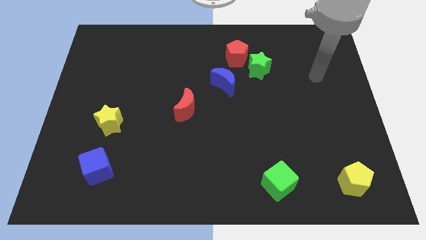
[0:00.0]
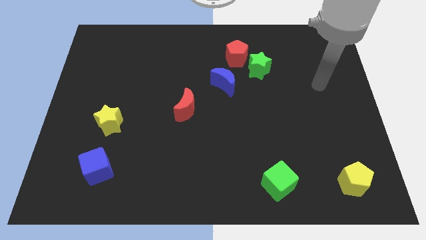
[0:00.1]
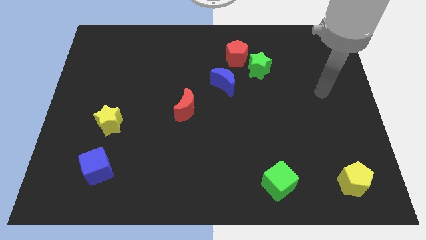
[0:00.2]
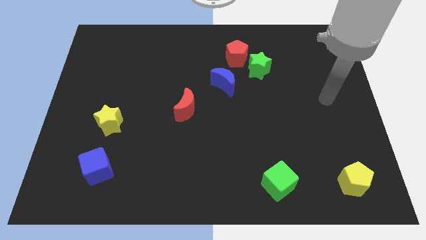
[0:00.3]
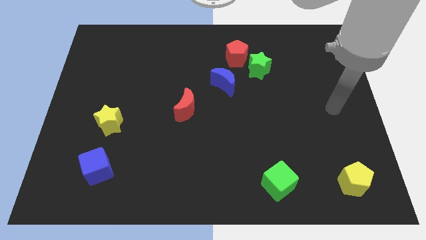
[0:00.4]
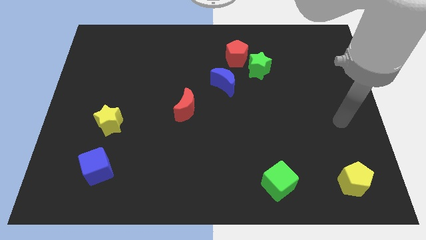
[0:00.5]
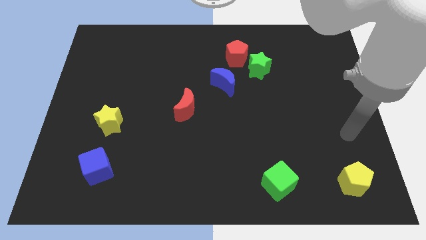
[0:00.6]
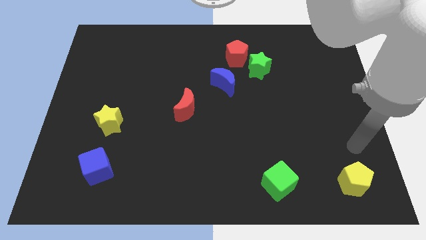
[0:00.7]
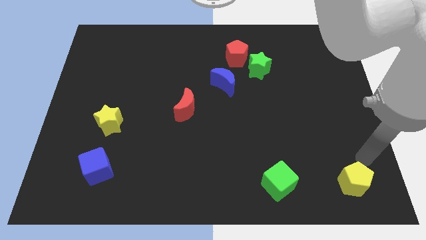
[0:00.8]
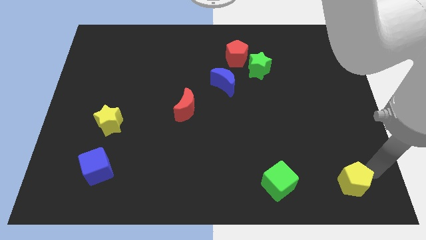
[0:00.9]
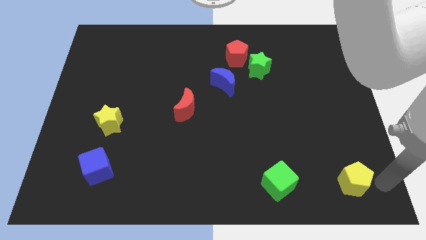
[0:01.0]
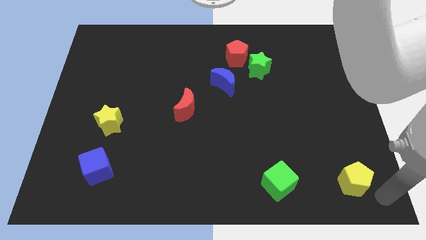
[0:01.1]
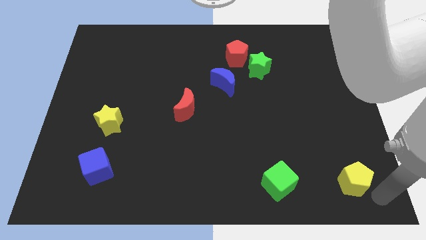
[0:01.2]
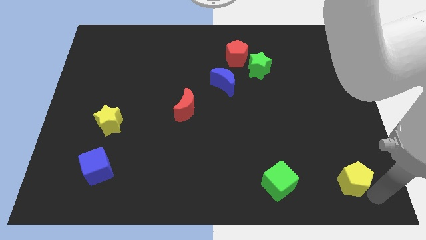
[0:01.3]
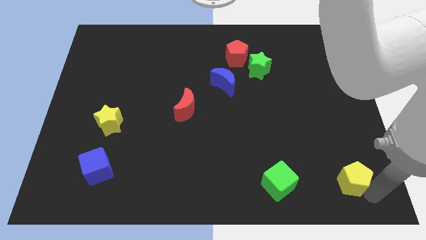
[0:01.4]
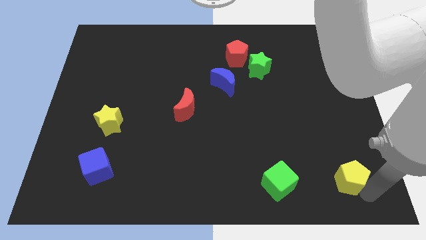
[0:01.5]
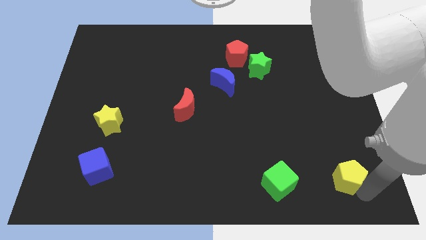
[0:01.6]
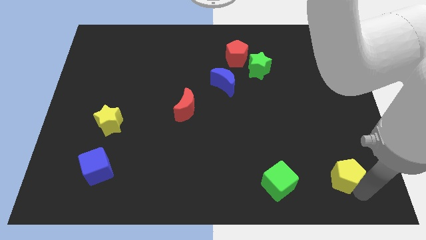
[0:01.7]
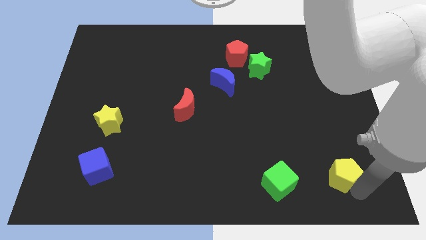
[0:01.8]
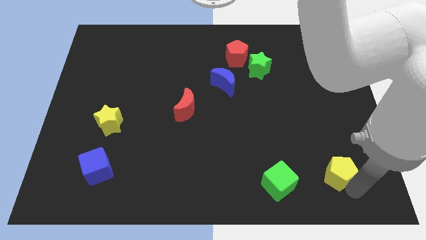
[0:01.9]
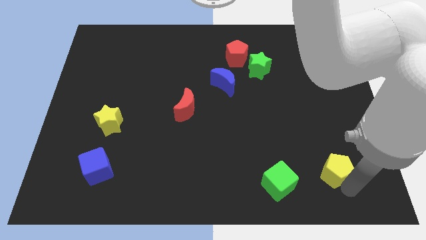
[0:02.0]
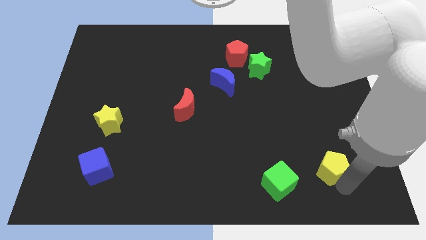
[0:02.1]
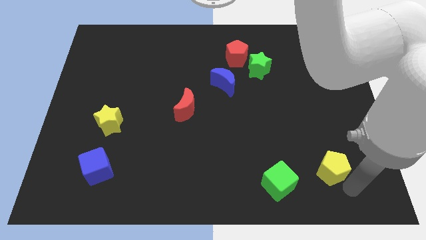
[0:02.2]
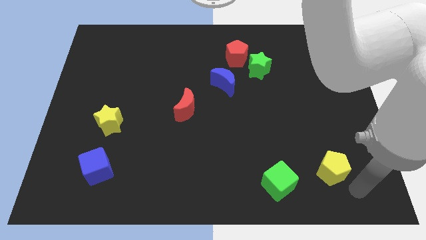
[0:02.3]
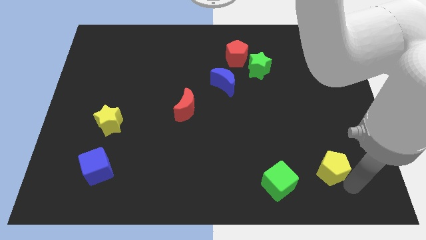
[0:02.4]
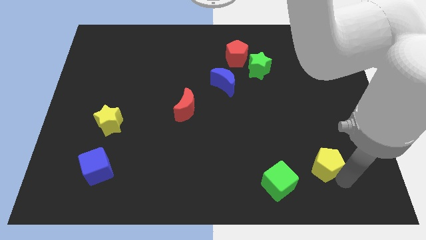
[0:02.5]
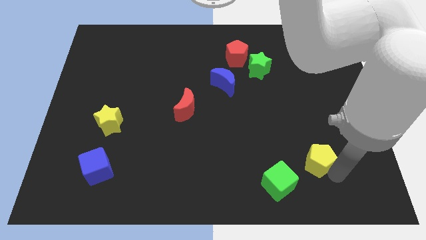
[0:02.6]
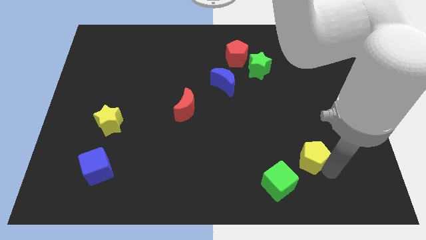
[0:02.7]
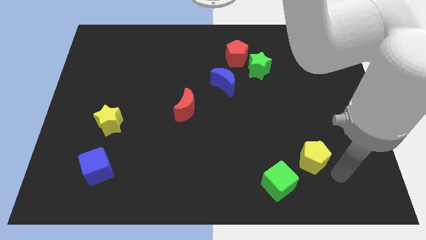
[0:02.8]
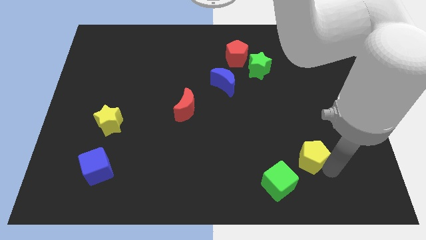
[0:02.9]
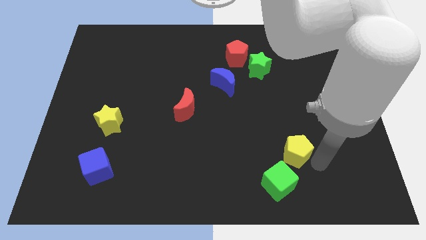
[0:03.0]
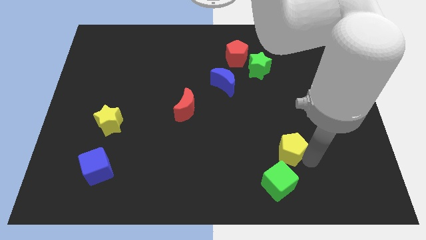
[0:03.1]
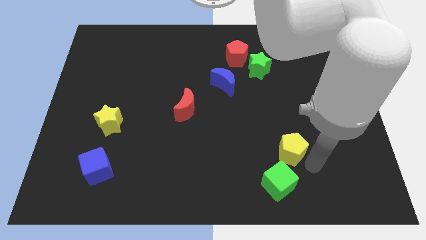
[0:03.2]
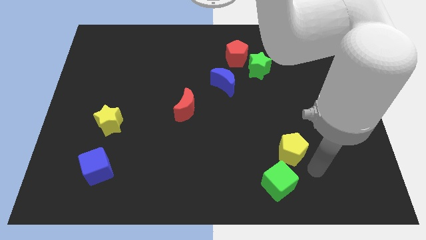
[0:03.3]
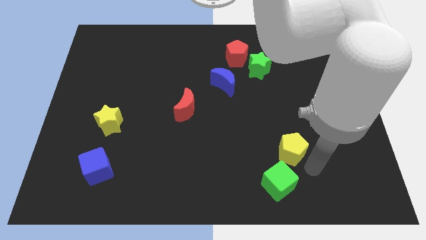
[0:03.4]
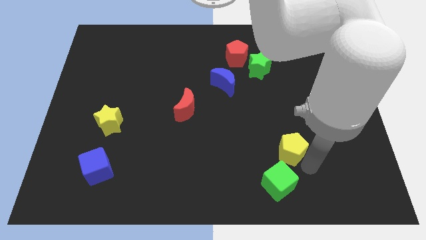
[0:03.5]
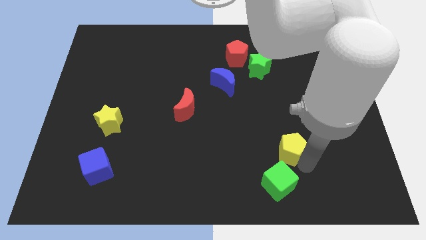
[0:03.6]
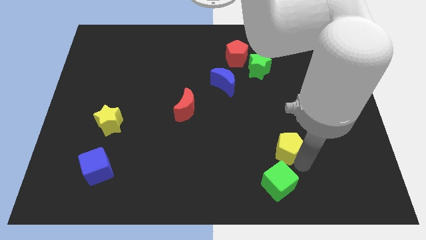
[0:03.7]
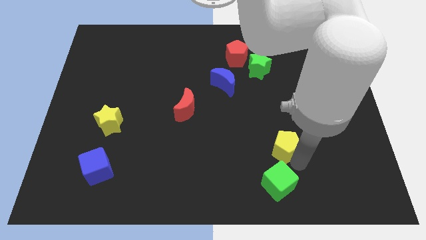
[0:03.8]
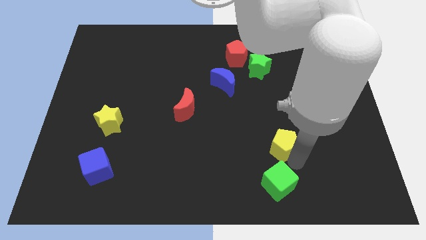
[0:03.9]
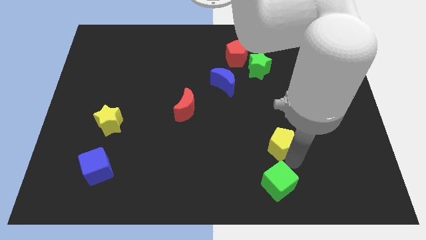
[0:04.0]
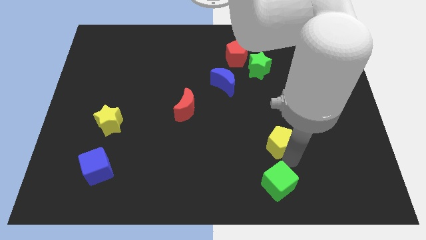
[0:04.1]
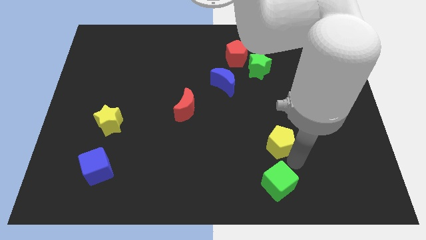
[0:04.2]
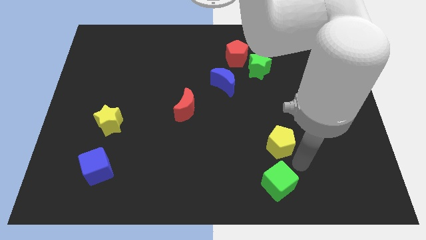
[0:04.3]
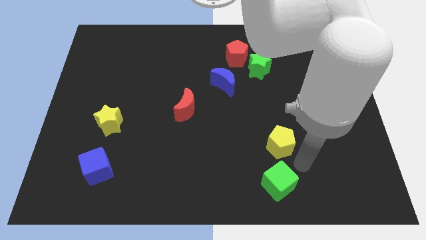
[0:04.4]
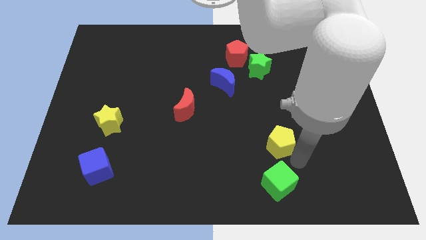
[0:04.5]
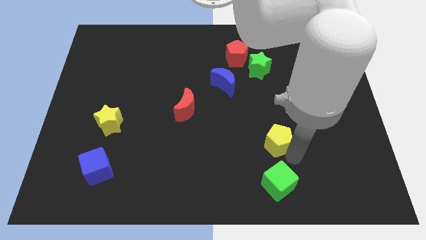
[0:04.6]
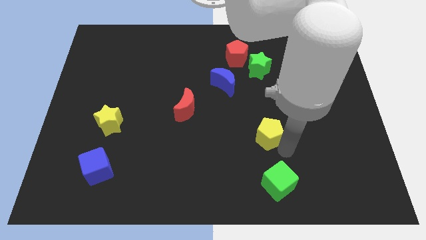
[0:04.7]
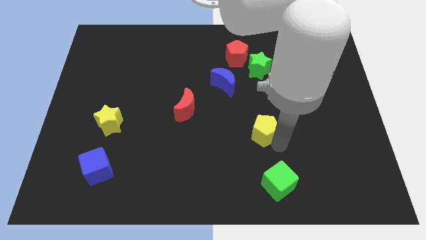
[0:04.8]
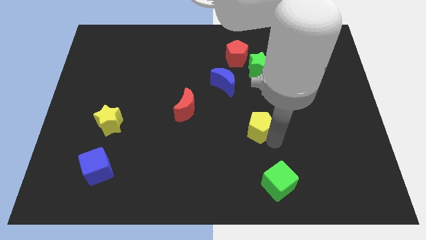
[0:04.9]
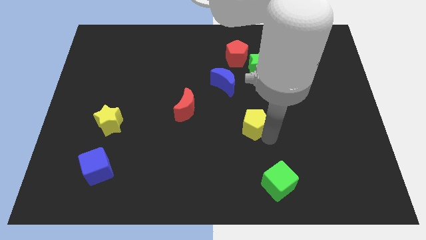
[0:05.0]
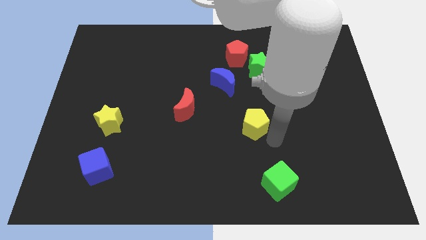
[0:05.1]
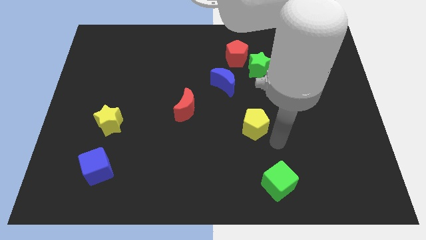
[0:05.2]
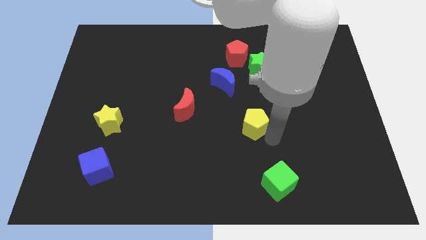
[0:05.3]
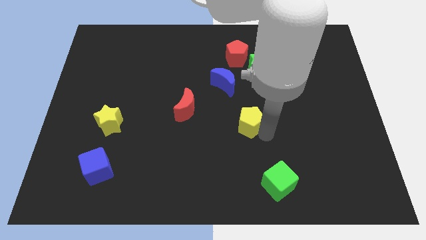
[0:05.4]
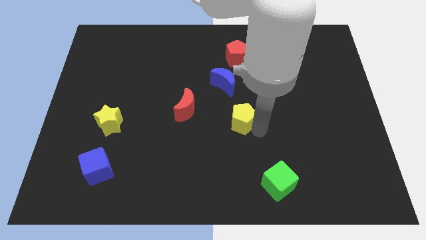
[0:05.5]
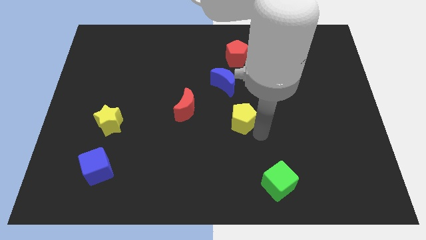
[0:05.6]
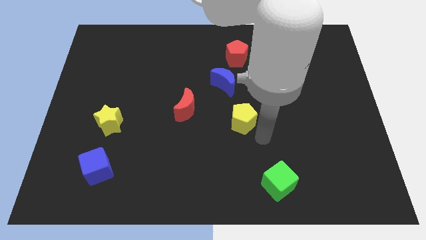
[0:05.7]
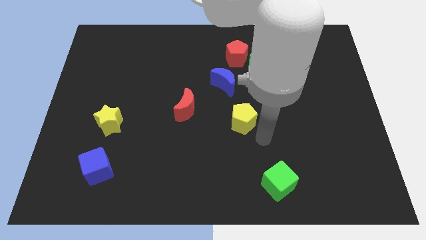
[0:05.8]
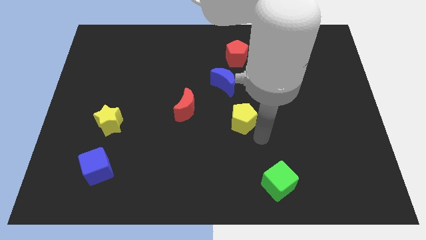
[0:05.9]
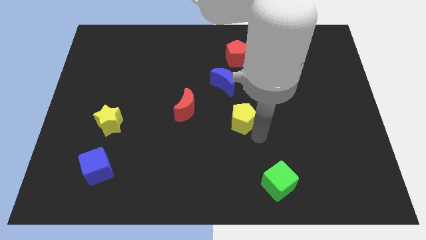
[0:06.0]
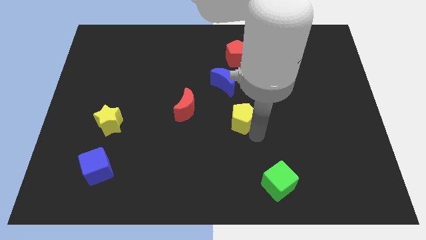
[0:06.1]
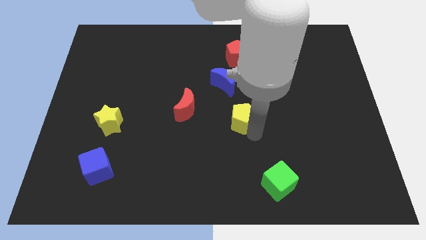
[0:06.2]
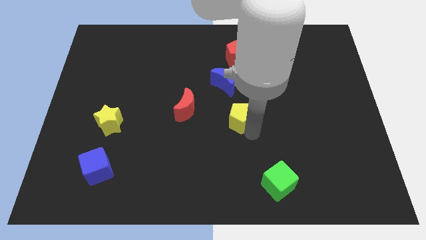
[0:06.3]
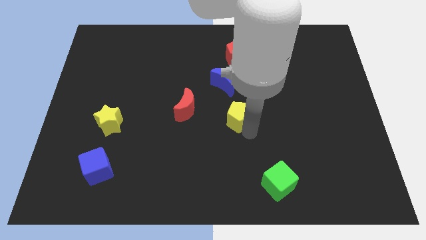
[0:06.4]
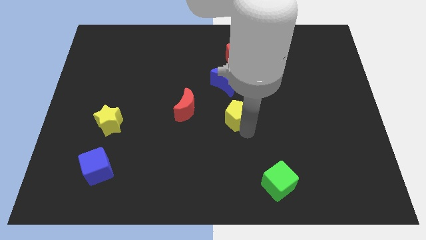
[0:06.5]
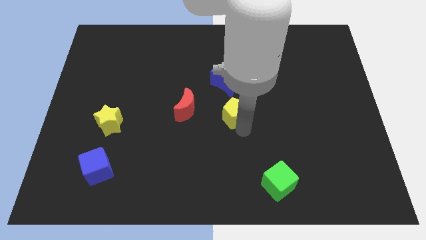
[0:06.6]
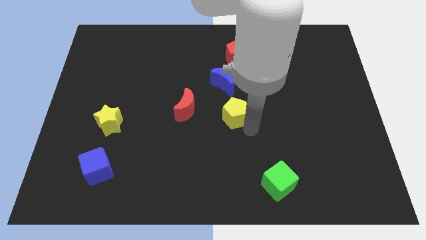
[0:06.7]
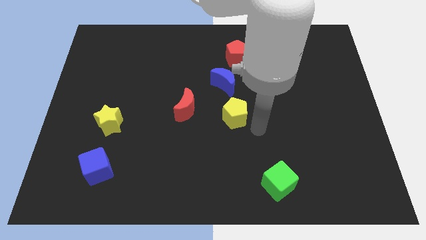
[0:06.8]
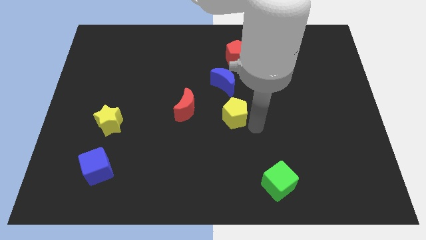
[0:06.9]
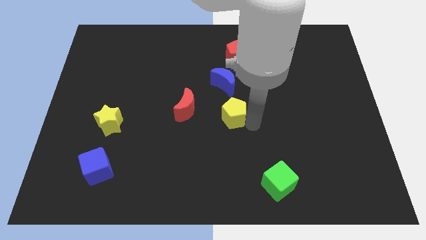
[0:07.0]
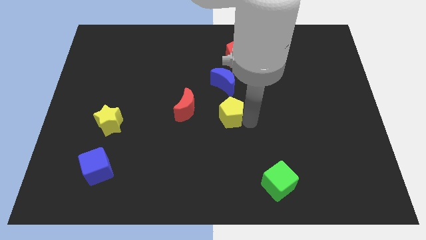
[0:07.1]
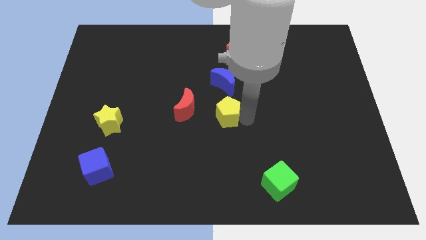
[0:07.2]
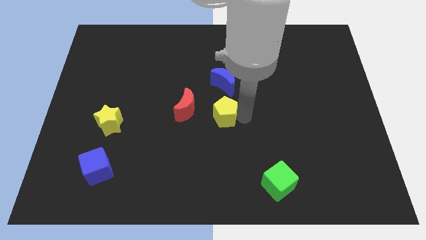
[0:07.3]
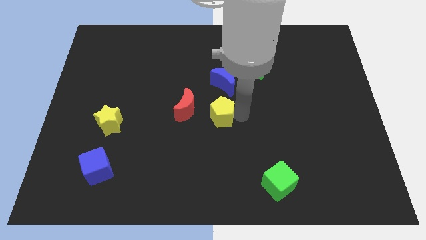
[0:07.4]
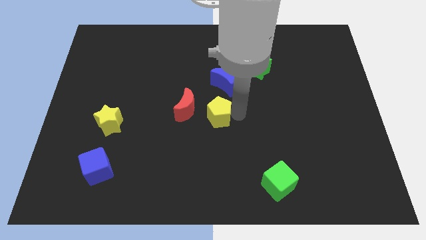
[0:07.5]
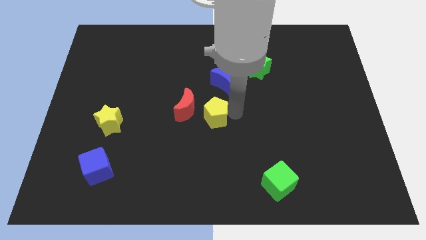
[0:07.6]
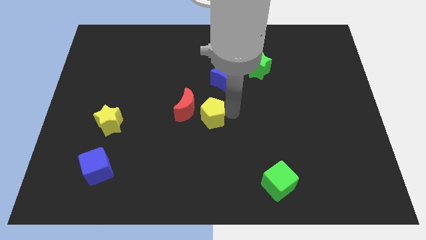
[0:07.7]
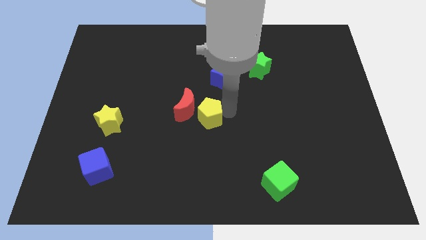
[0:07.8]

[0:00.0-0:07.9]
slide the yellow pentagon diagonally down and to the left of the blue moon
